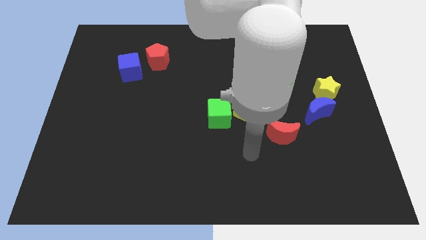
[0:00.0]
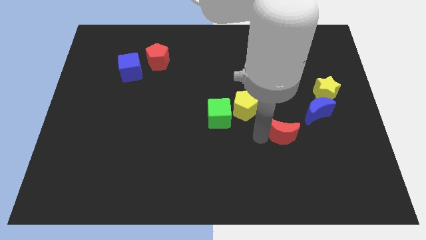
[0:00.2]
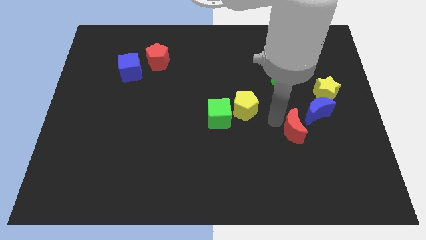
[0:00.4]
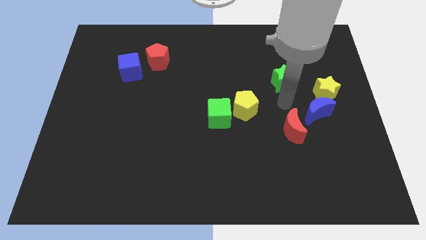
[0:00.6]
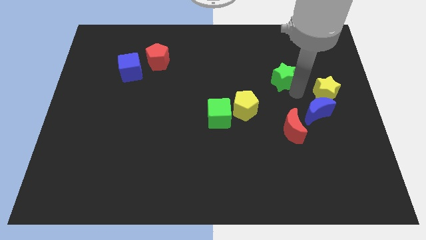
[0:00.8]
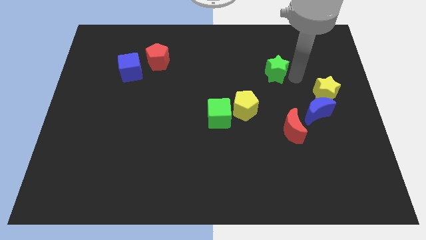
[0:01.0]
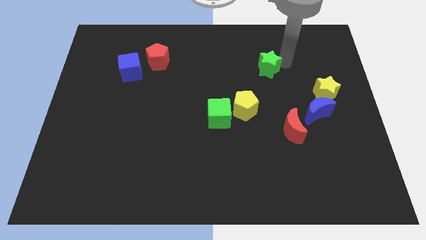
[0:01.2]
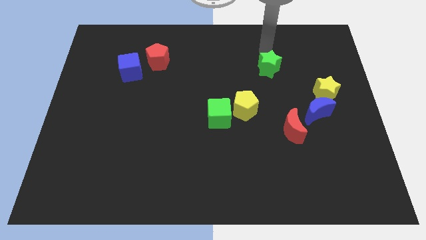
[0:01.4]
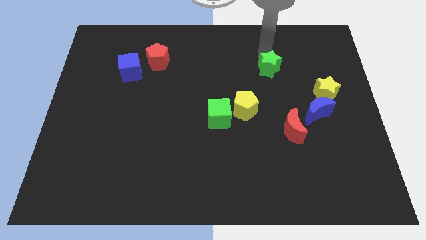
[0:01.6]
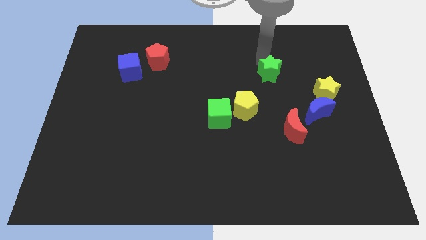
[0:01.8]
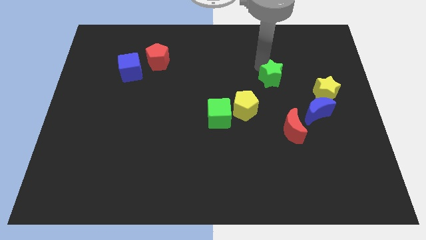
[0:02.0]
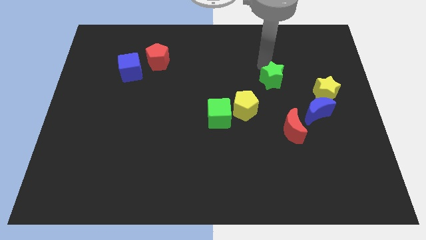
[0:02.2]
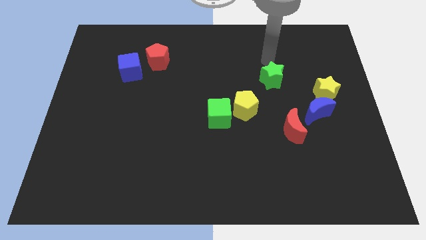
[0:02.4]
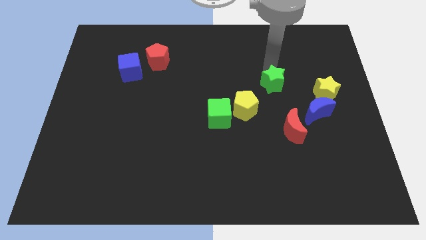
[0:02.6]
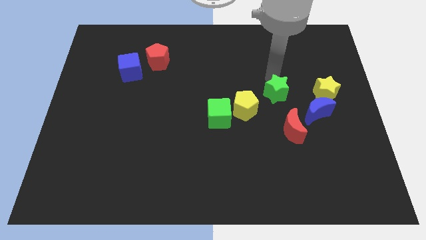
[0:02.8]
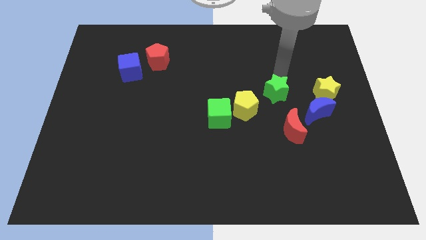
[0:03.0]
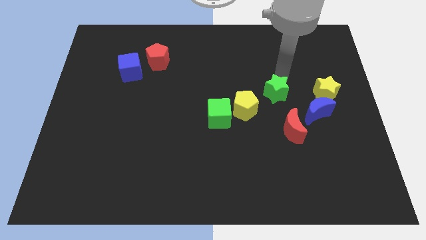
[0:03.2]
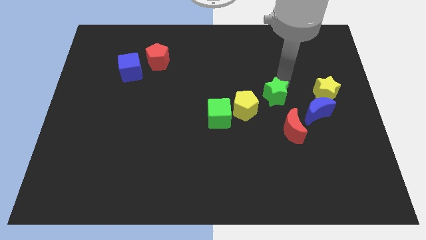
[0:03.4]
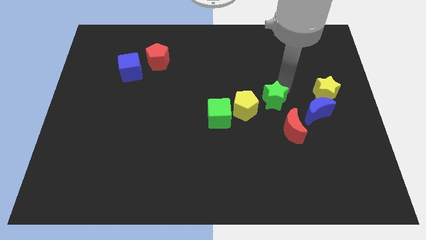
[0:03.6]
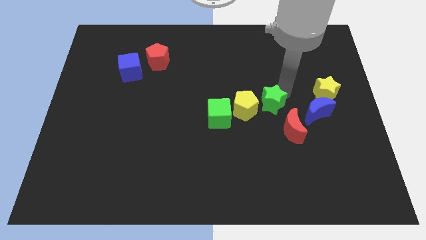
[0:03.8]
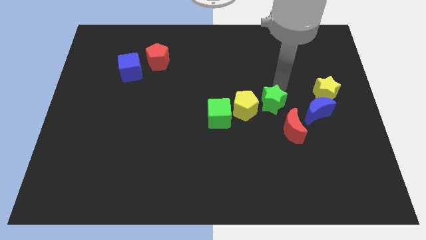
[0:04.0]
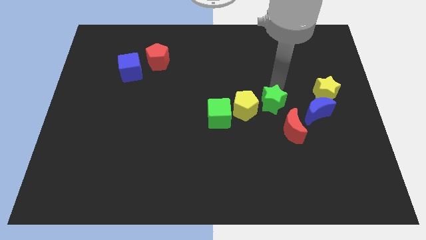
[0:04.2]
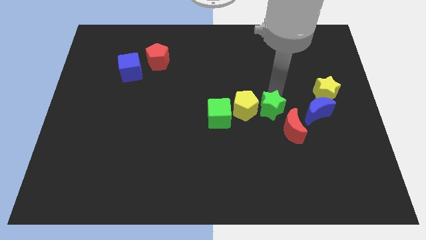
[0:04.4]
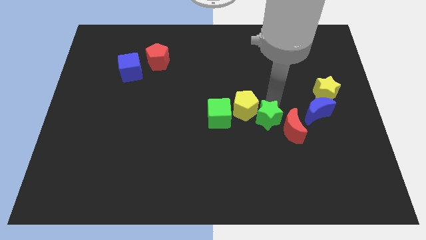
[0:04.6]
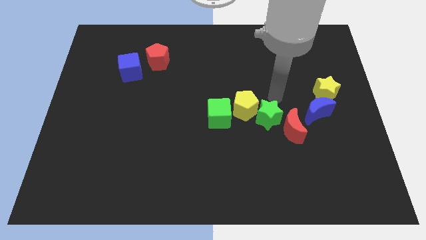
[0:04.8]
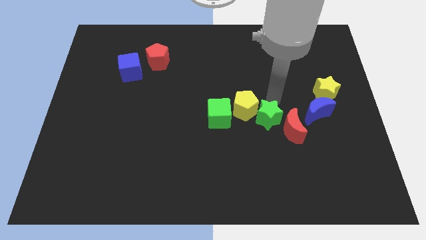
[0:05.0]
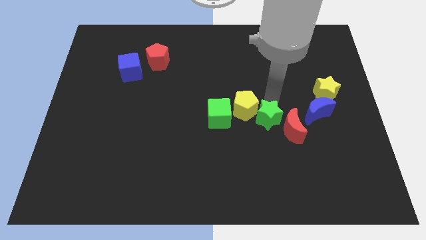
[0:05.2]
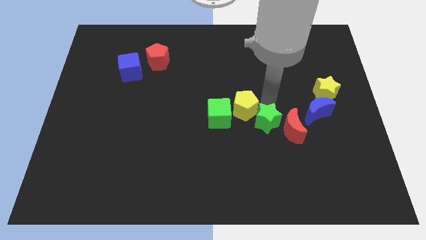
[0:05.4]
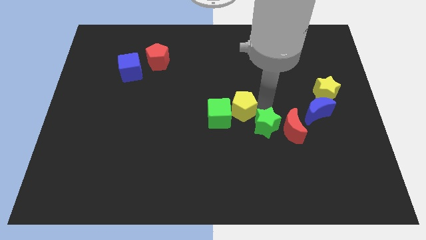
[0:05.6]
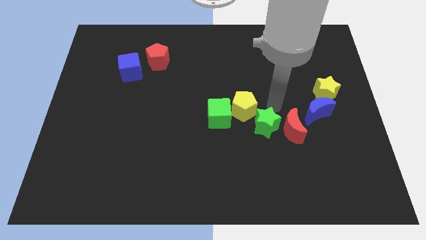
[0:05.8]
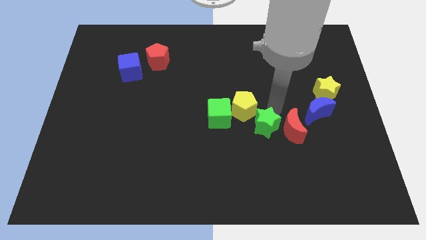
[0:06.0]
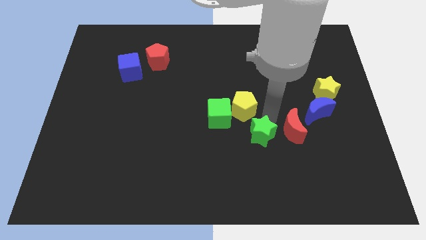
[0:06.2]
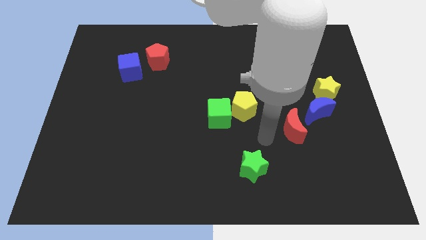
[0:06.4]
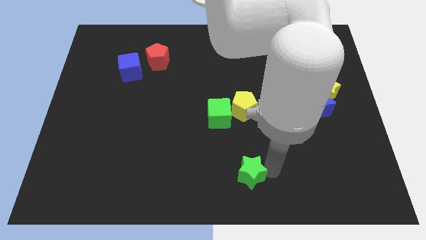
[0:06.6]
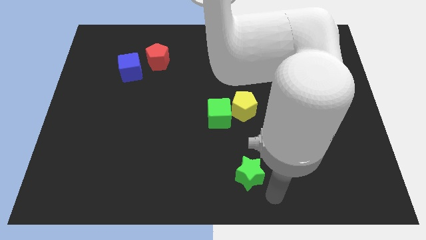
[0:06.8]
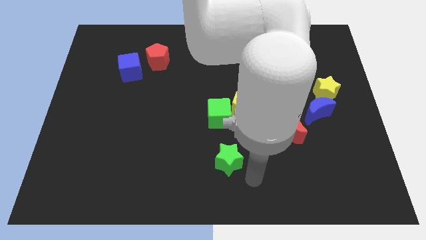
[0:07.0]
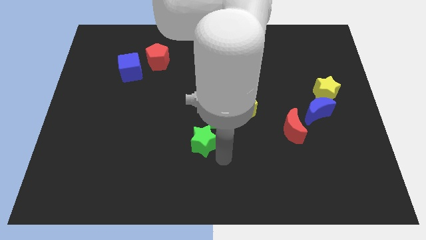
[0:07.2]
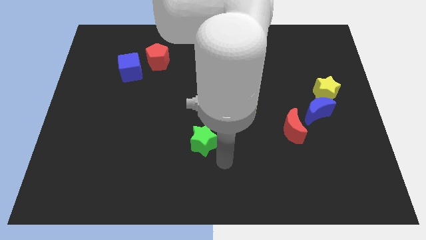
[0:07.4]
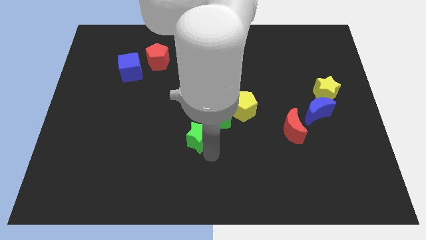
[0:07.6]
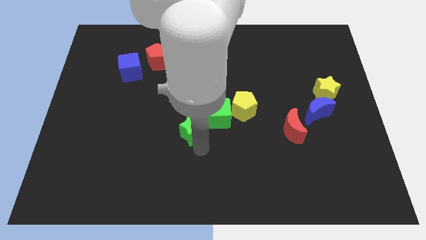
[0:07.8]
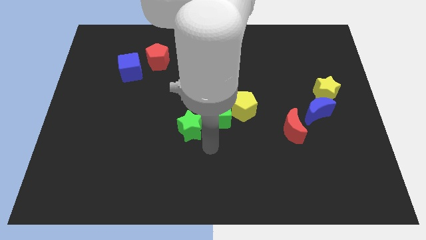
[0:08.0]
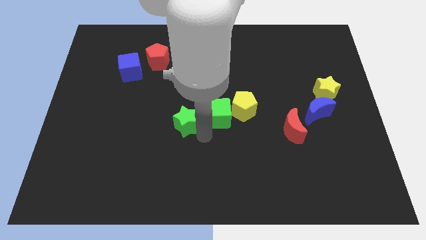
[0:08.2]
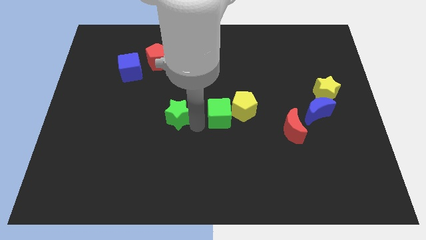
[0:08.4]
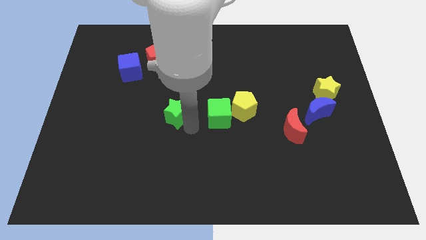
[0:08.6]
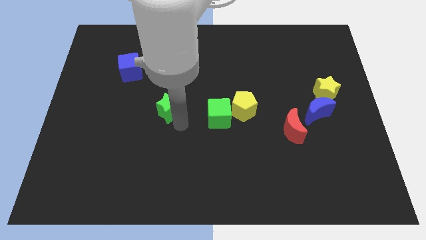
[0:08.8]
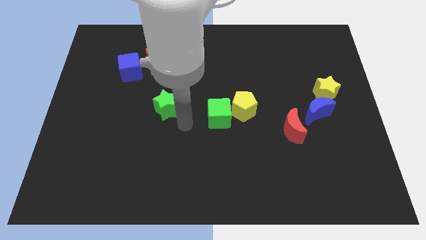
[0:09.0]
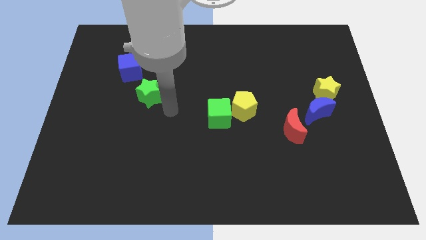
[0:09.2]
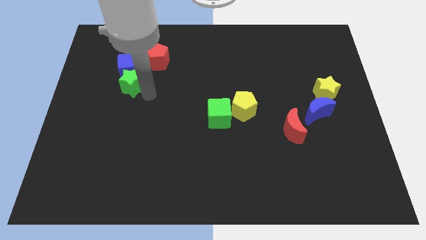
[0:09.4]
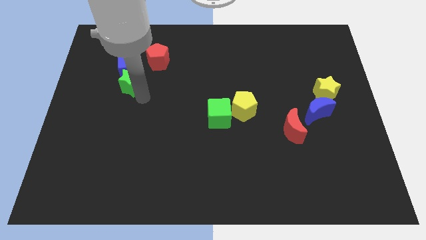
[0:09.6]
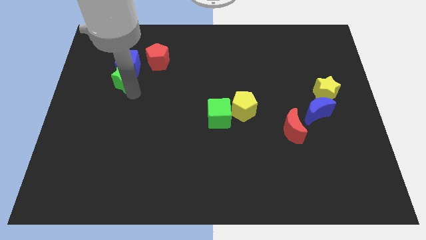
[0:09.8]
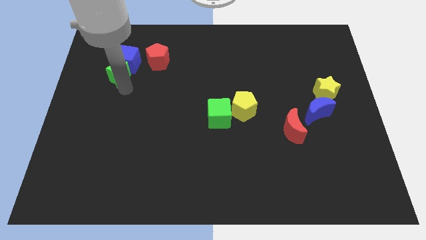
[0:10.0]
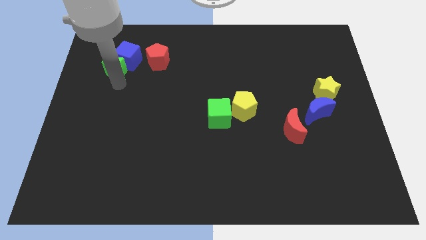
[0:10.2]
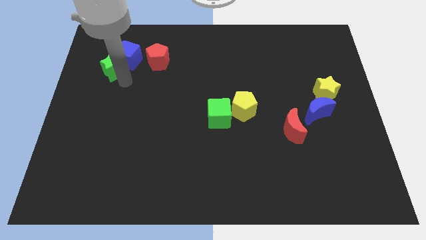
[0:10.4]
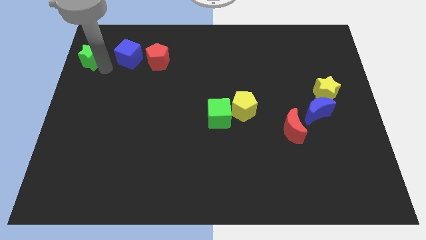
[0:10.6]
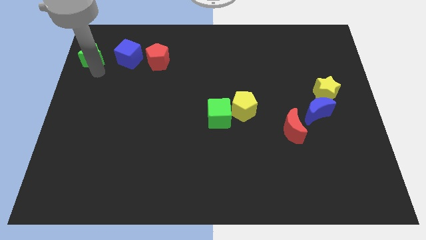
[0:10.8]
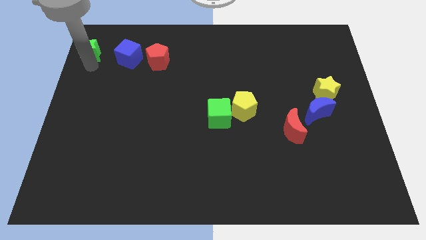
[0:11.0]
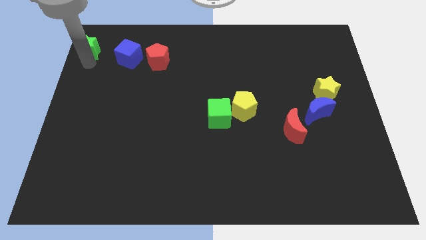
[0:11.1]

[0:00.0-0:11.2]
push the green star to the top left

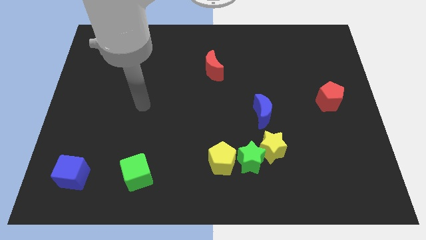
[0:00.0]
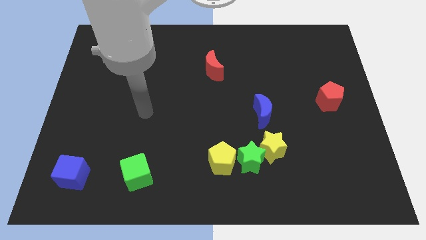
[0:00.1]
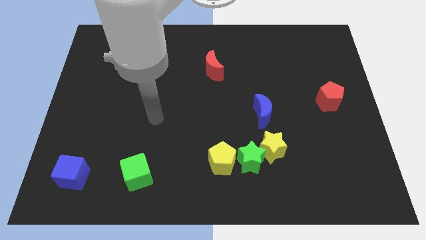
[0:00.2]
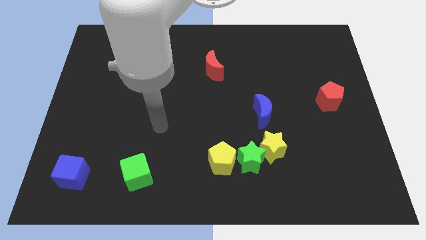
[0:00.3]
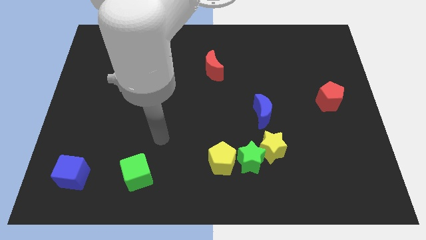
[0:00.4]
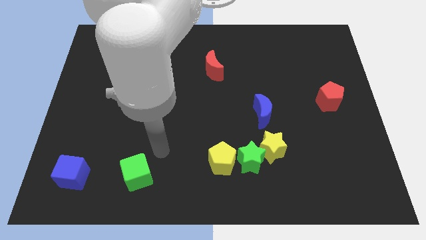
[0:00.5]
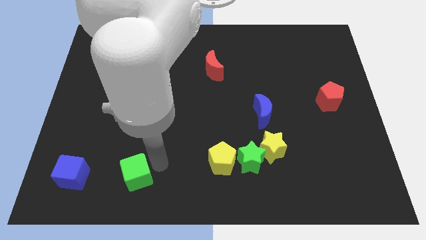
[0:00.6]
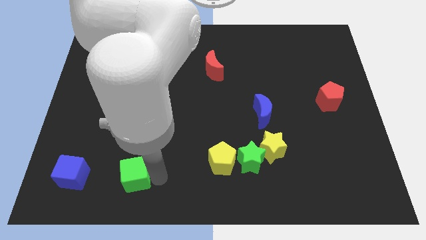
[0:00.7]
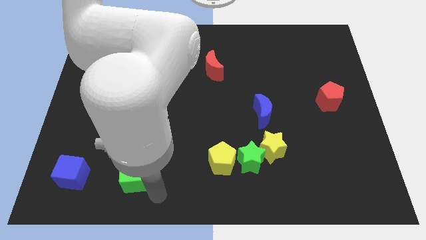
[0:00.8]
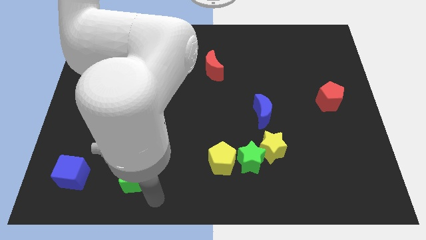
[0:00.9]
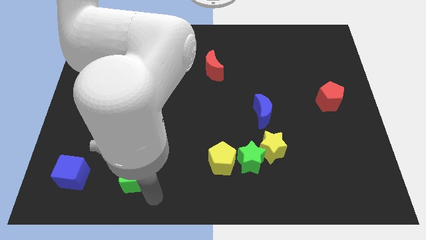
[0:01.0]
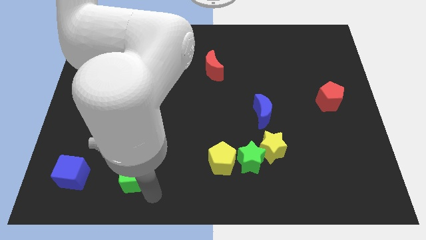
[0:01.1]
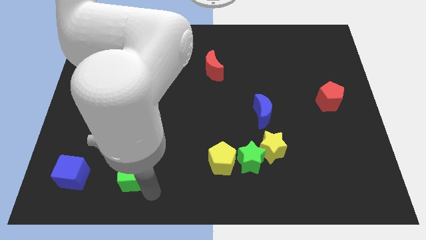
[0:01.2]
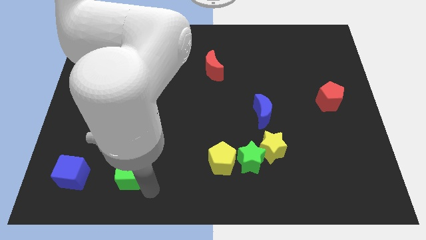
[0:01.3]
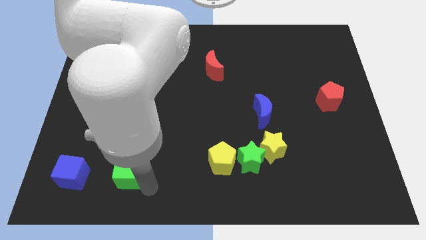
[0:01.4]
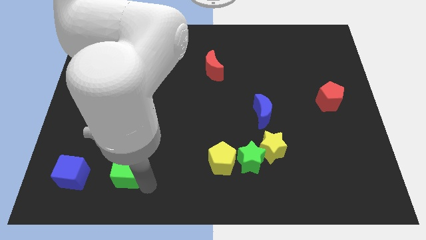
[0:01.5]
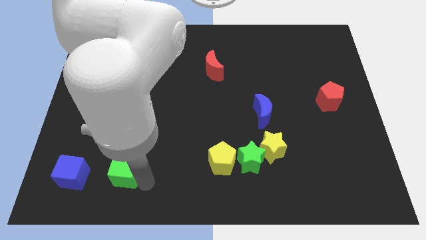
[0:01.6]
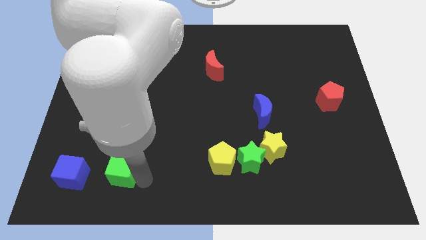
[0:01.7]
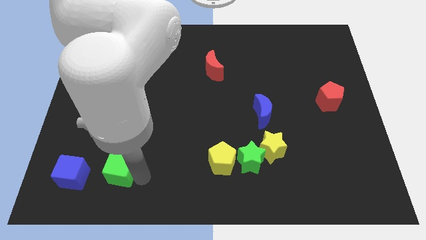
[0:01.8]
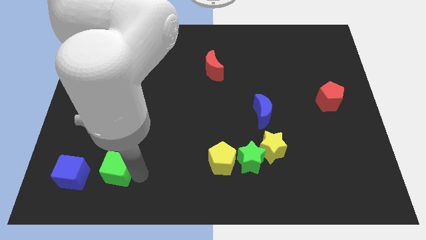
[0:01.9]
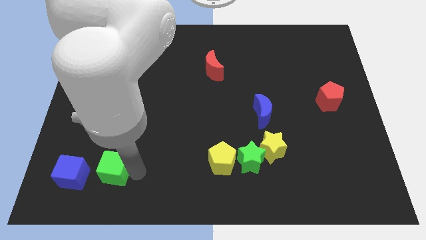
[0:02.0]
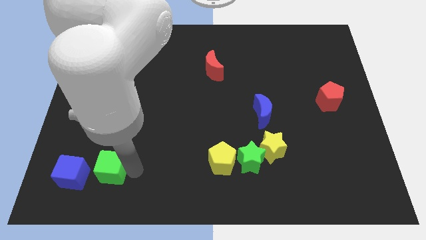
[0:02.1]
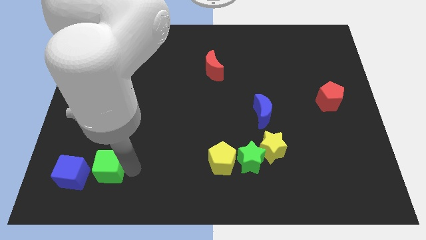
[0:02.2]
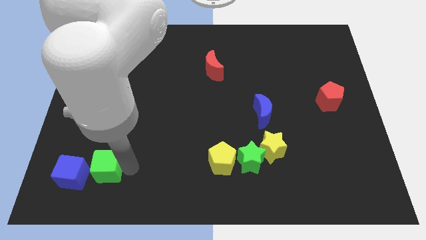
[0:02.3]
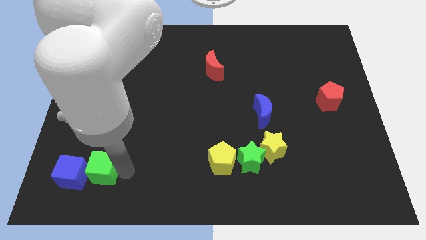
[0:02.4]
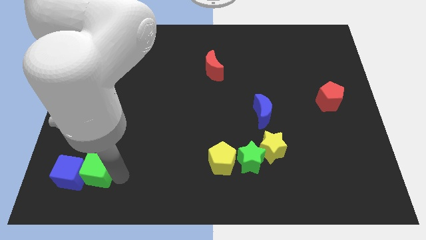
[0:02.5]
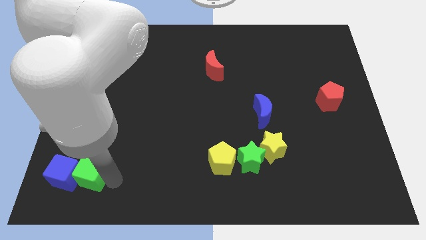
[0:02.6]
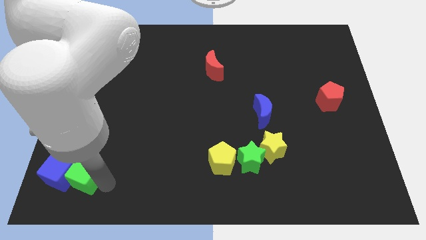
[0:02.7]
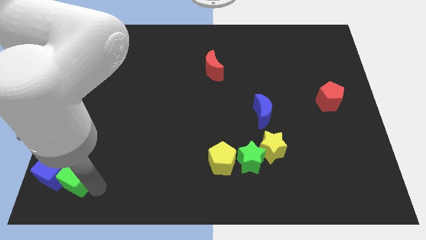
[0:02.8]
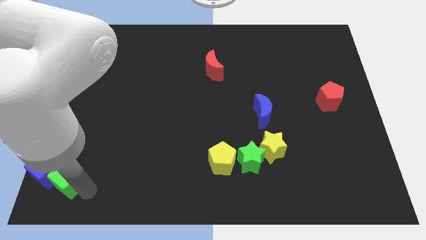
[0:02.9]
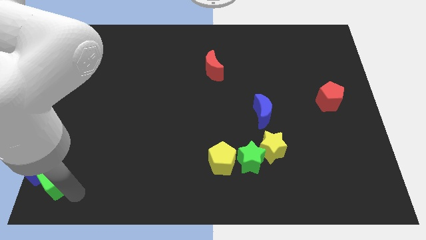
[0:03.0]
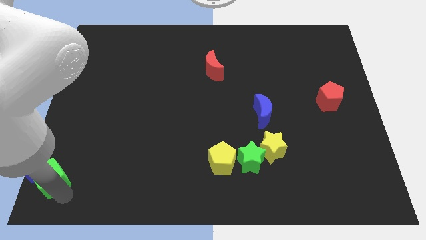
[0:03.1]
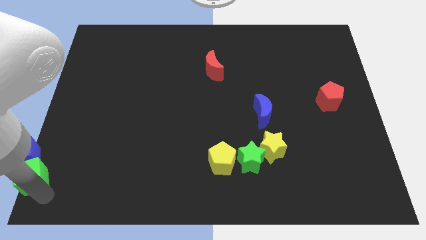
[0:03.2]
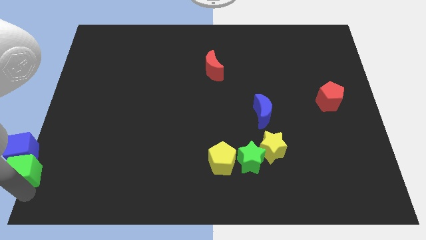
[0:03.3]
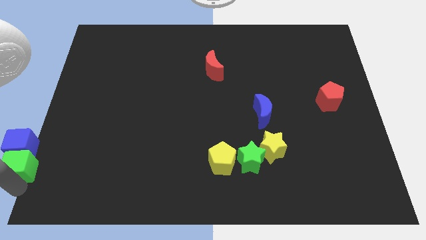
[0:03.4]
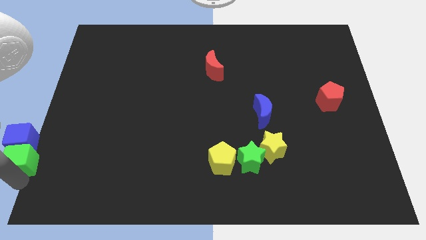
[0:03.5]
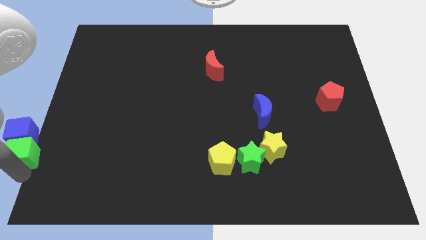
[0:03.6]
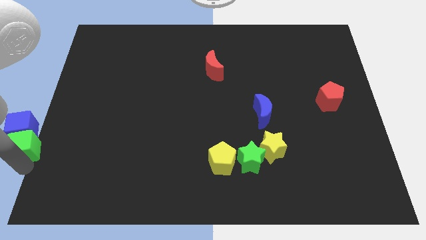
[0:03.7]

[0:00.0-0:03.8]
put the green cube to the left side of the board
